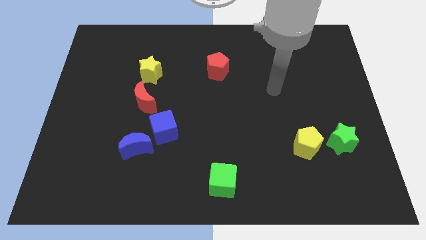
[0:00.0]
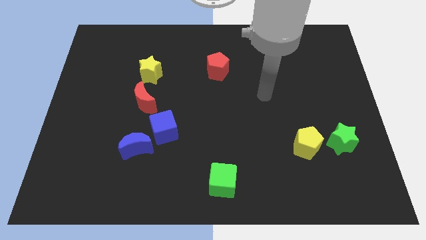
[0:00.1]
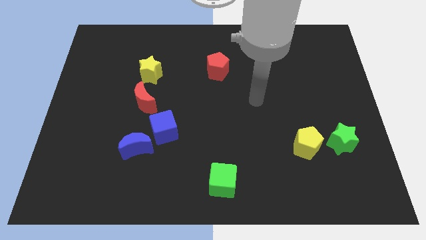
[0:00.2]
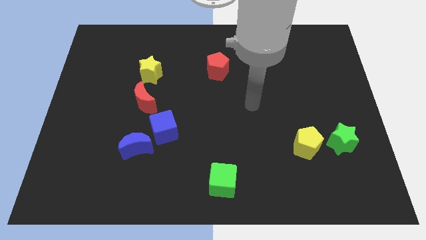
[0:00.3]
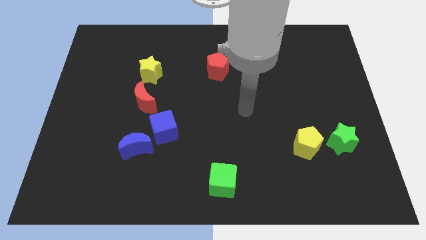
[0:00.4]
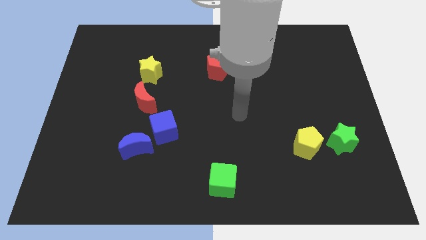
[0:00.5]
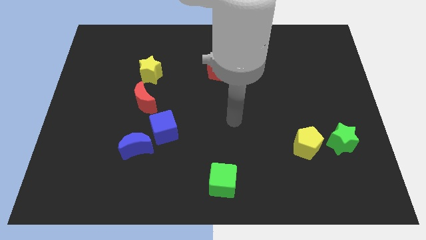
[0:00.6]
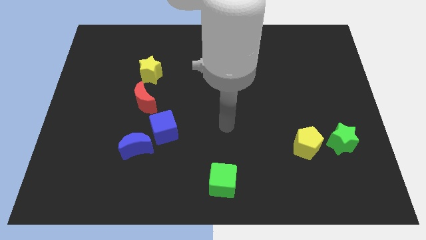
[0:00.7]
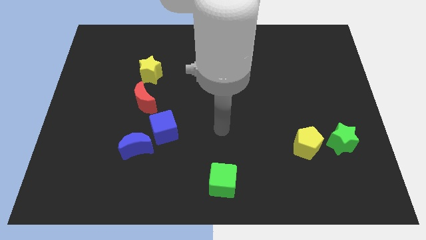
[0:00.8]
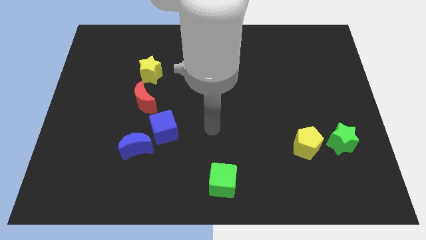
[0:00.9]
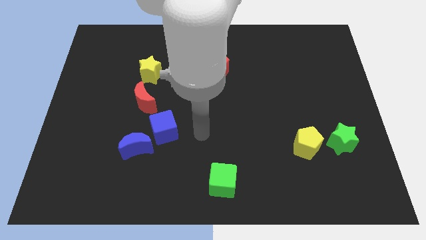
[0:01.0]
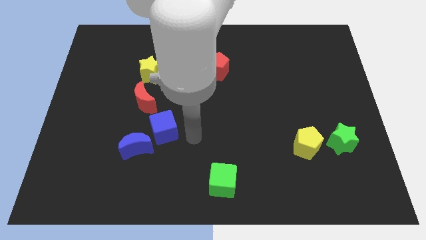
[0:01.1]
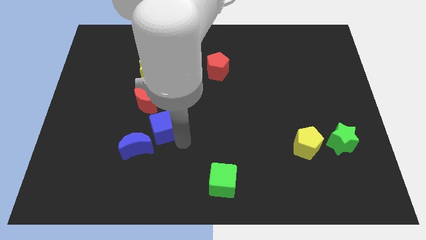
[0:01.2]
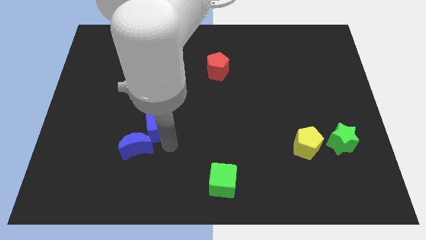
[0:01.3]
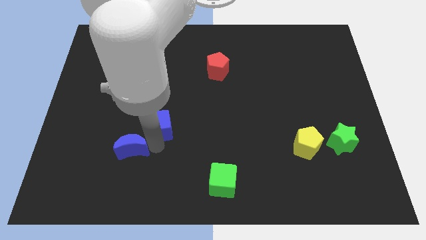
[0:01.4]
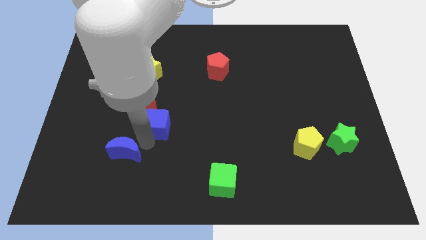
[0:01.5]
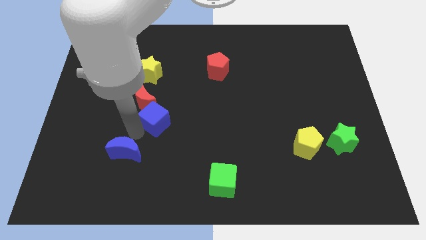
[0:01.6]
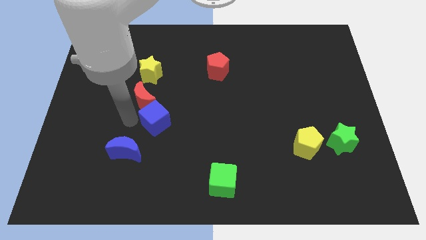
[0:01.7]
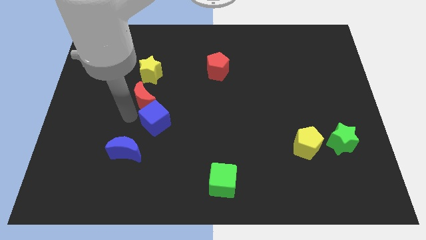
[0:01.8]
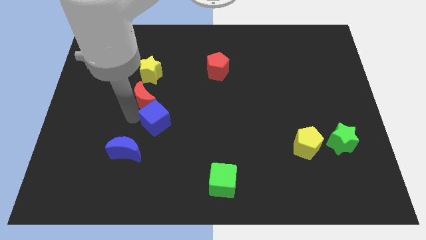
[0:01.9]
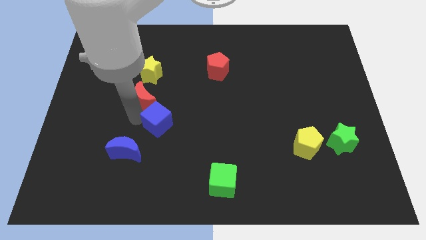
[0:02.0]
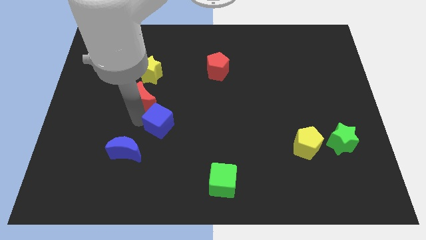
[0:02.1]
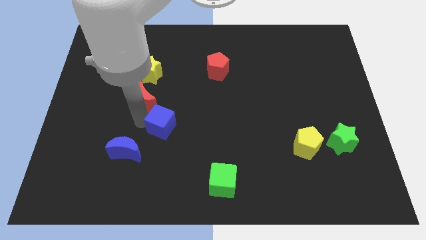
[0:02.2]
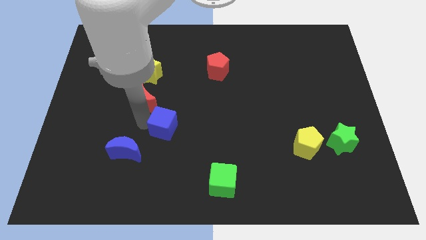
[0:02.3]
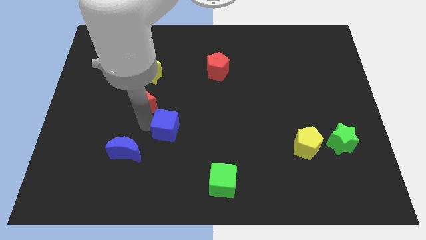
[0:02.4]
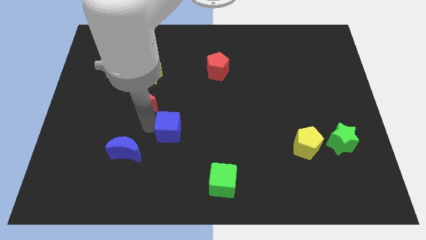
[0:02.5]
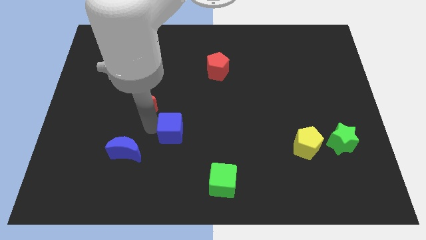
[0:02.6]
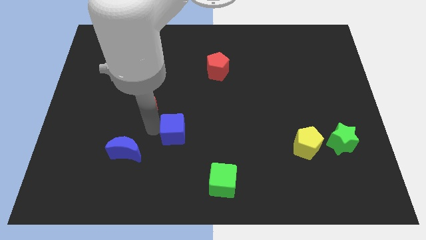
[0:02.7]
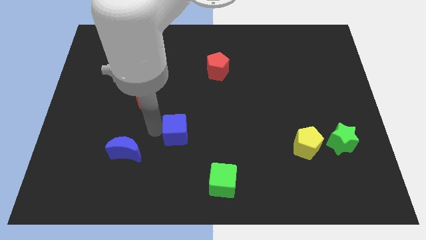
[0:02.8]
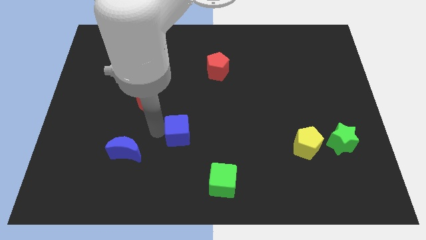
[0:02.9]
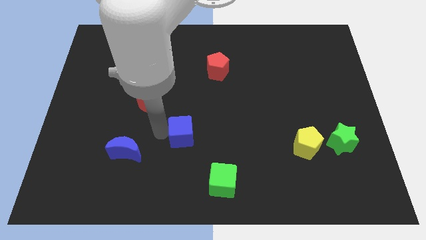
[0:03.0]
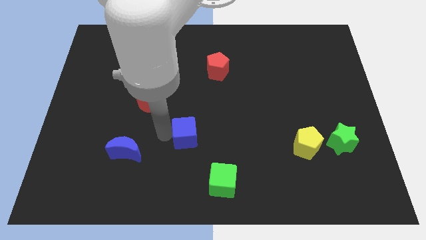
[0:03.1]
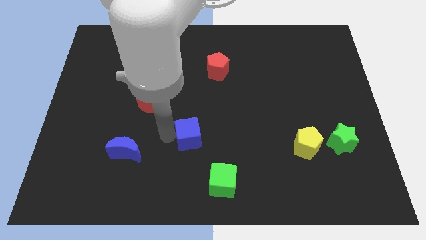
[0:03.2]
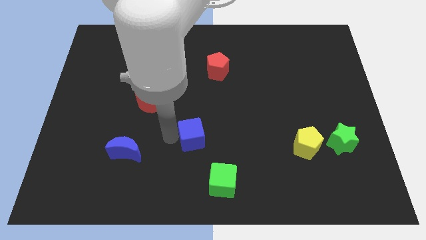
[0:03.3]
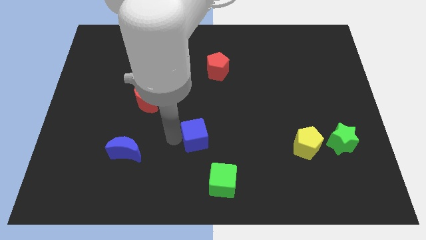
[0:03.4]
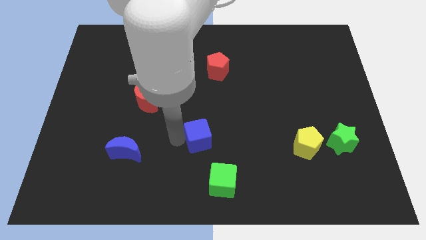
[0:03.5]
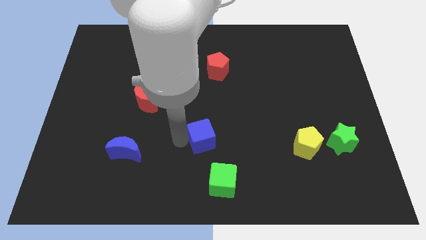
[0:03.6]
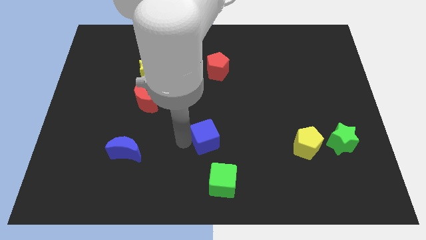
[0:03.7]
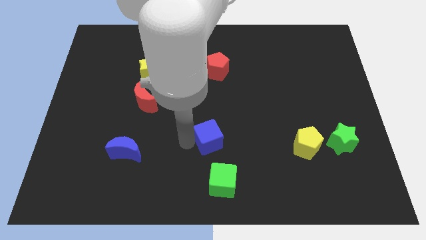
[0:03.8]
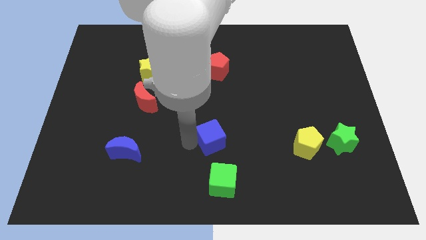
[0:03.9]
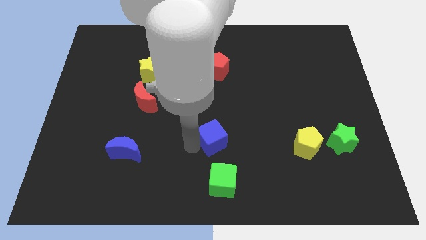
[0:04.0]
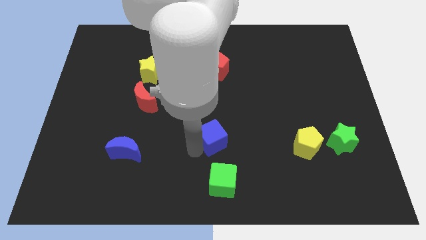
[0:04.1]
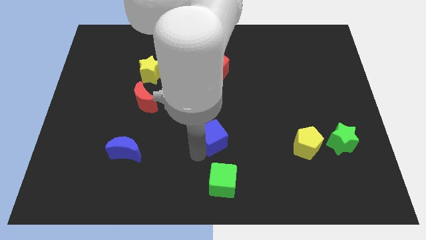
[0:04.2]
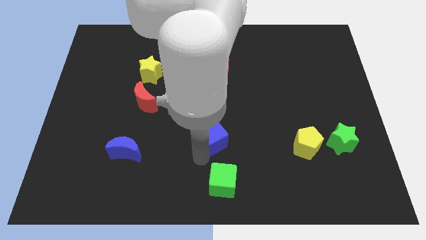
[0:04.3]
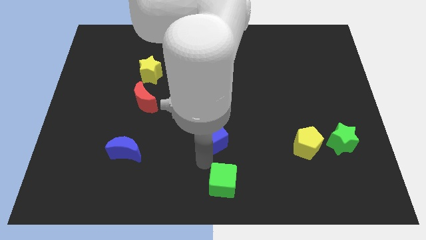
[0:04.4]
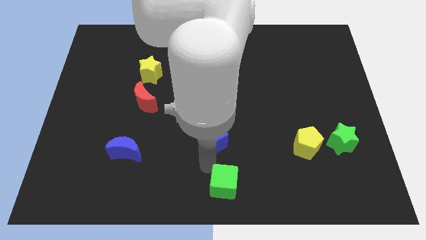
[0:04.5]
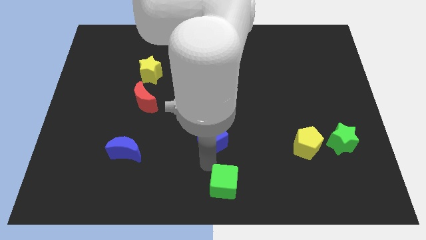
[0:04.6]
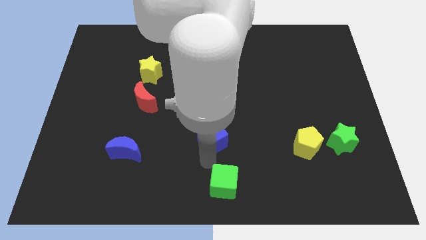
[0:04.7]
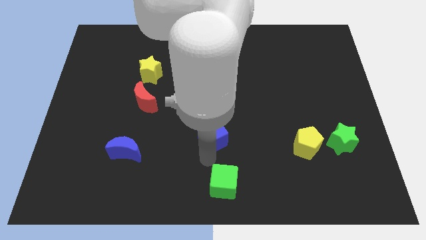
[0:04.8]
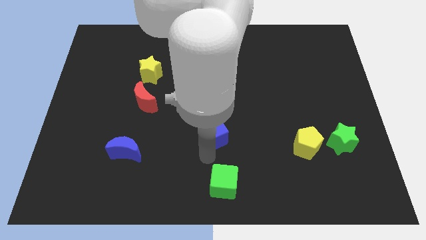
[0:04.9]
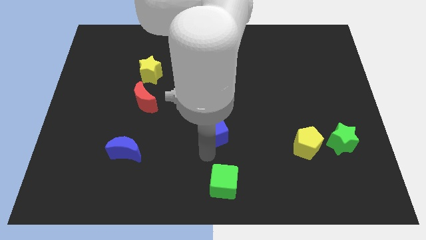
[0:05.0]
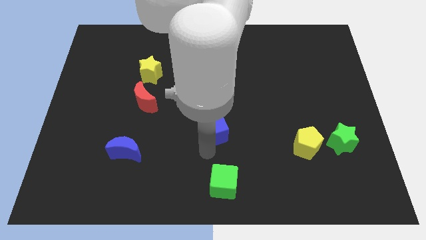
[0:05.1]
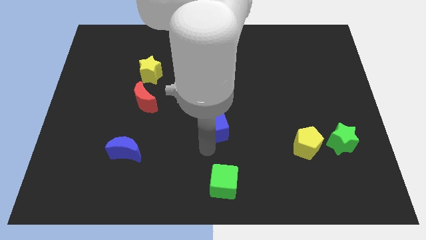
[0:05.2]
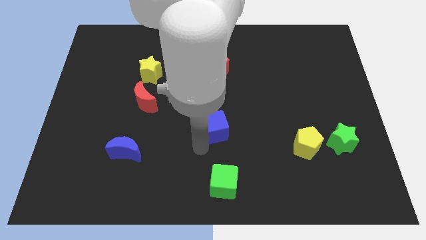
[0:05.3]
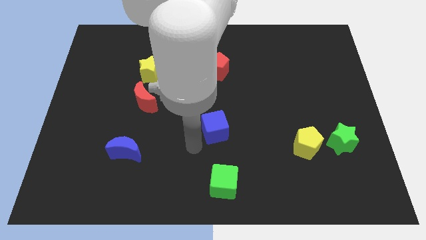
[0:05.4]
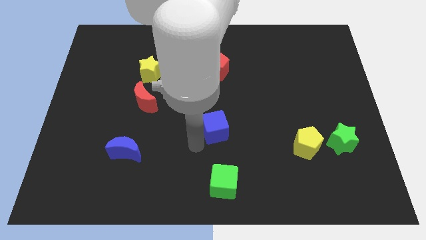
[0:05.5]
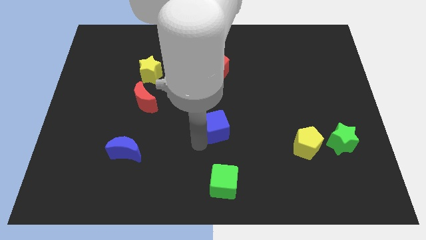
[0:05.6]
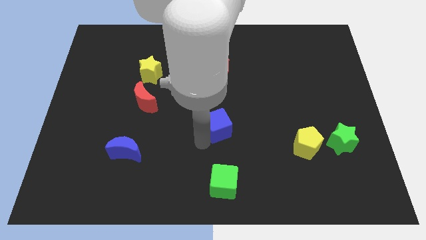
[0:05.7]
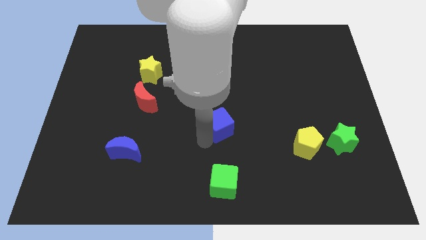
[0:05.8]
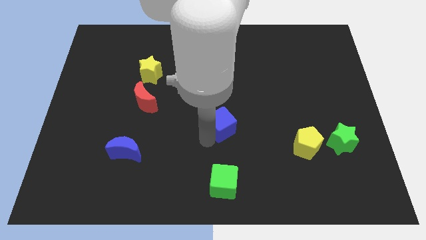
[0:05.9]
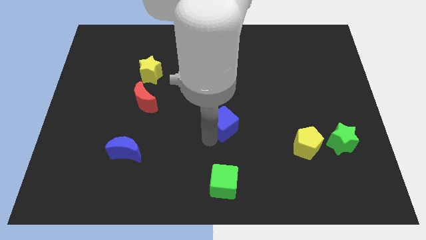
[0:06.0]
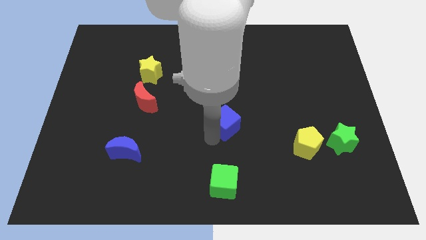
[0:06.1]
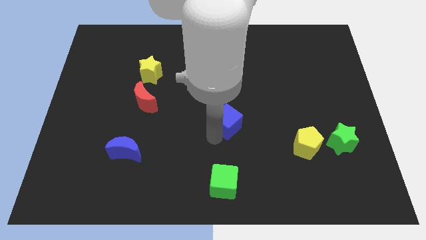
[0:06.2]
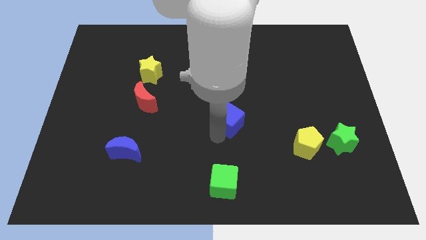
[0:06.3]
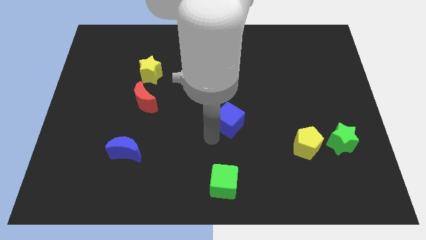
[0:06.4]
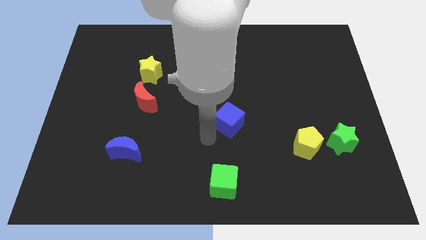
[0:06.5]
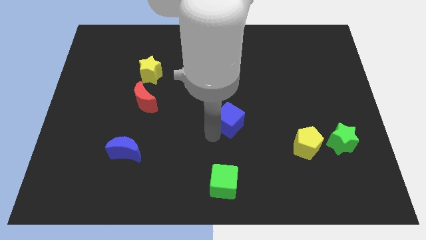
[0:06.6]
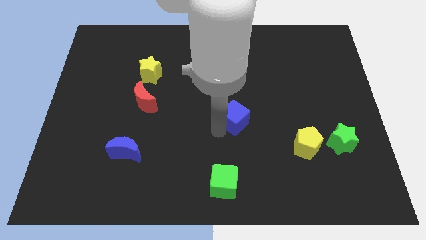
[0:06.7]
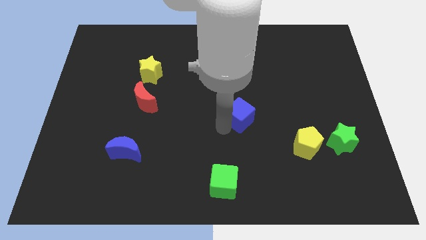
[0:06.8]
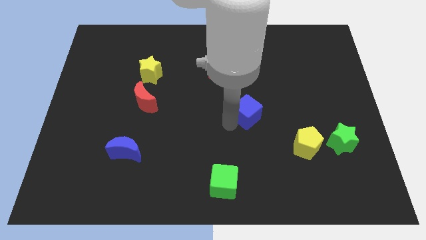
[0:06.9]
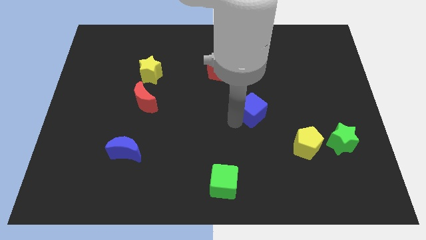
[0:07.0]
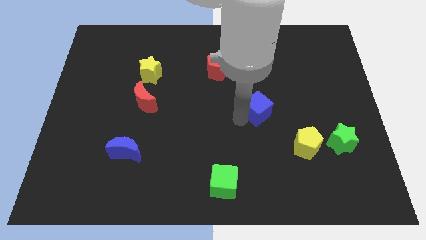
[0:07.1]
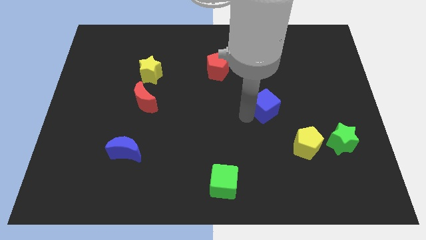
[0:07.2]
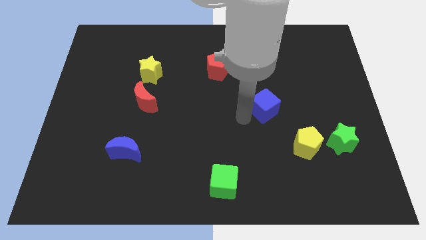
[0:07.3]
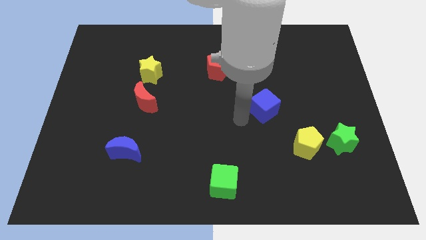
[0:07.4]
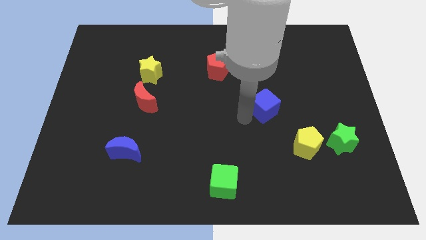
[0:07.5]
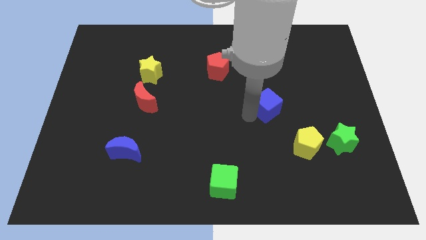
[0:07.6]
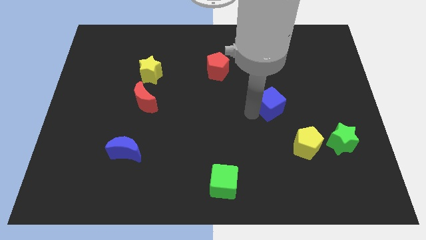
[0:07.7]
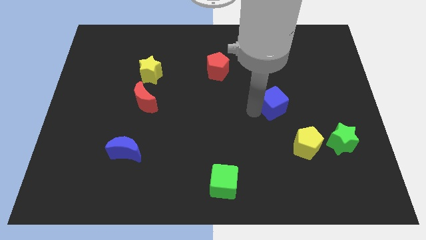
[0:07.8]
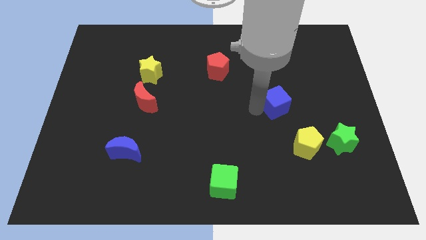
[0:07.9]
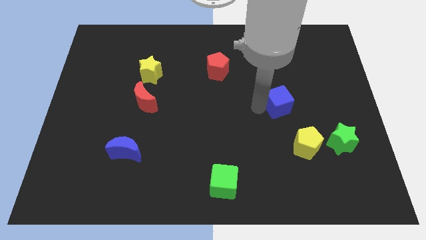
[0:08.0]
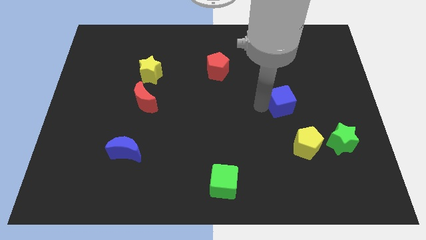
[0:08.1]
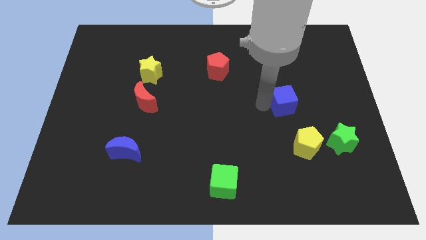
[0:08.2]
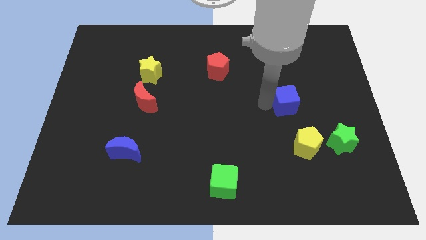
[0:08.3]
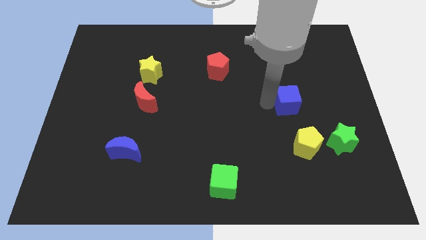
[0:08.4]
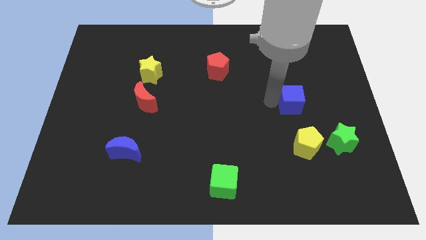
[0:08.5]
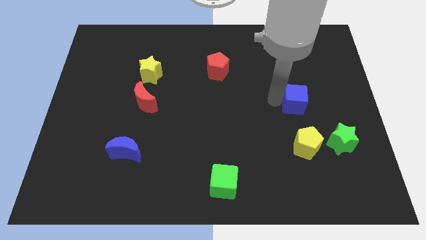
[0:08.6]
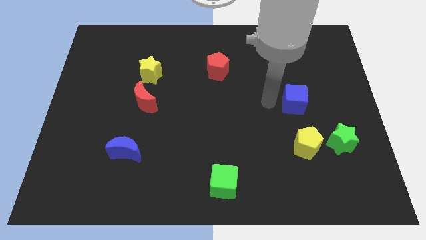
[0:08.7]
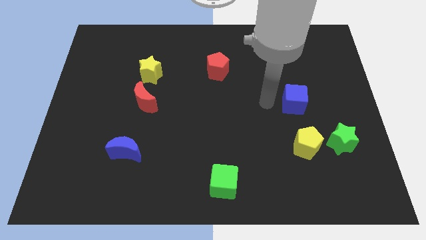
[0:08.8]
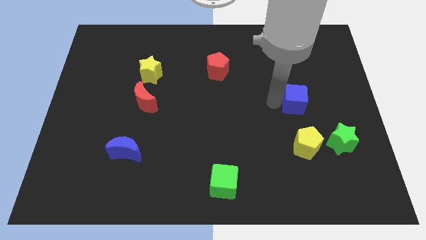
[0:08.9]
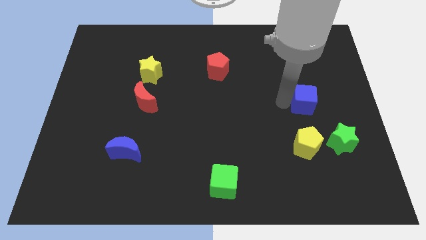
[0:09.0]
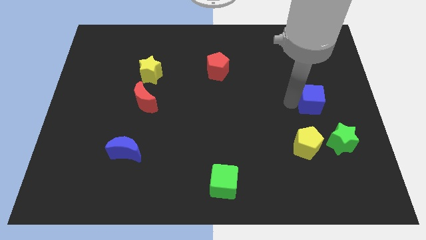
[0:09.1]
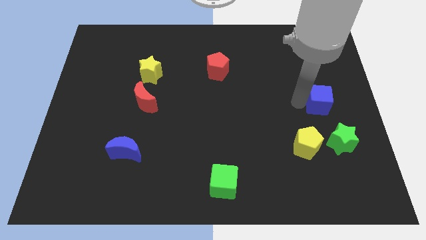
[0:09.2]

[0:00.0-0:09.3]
move the blue cube to the right side
